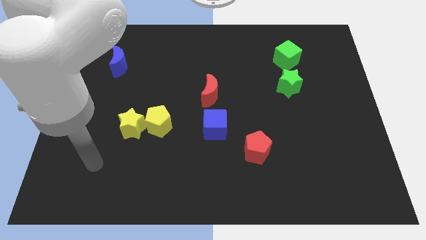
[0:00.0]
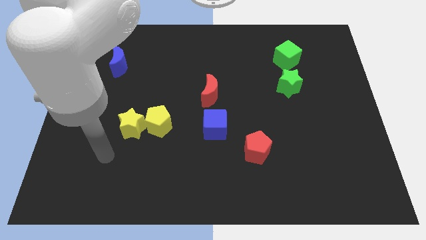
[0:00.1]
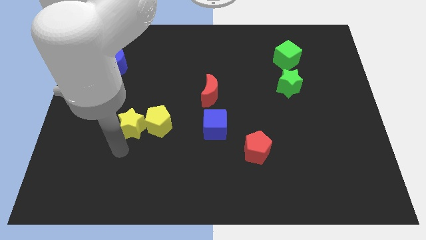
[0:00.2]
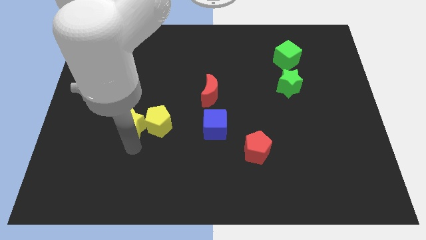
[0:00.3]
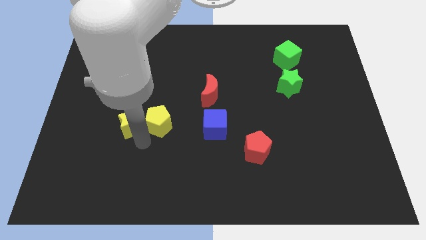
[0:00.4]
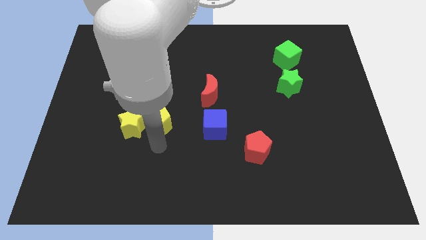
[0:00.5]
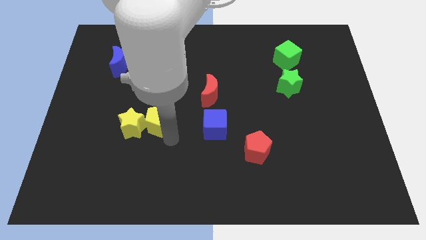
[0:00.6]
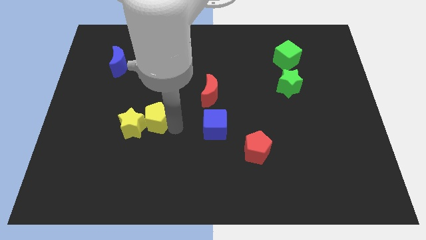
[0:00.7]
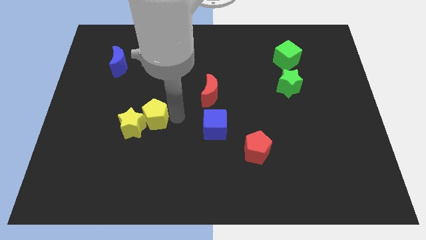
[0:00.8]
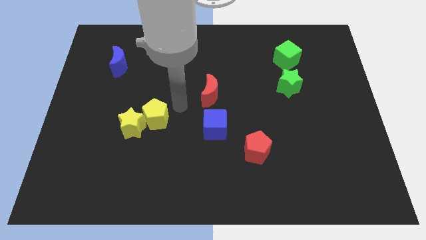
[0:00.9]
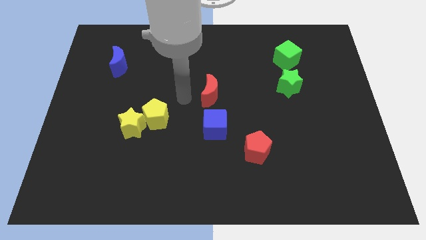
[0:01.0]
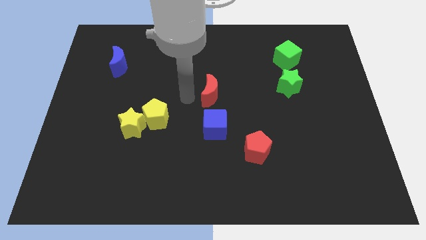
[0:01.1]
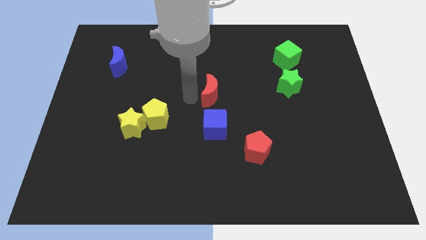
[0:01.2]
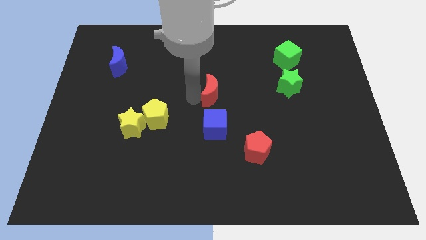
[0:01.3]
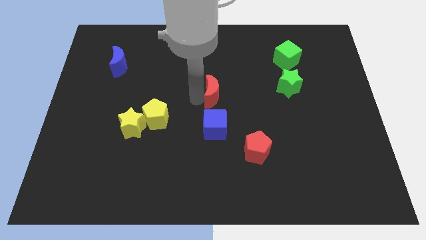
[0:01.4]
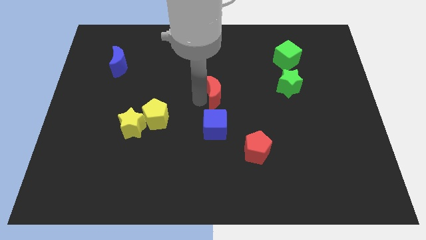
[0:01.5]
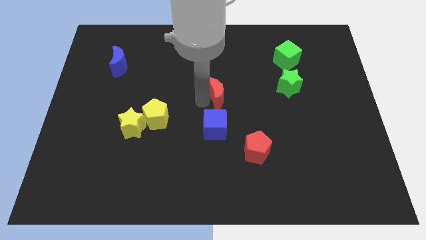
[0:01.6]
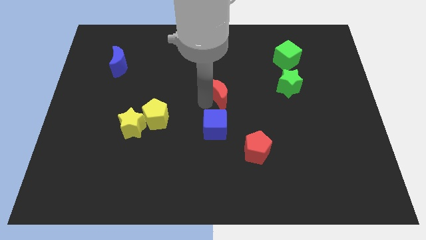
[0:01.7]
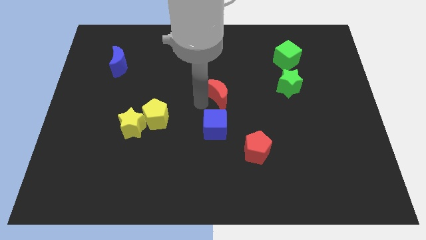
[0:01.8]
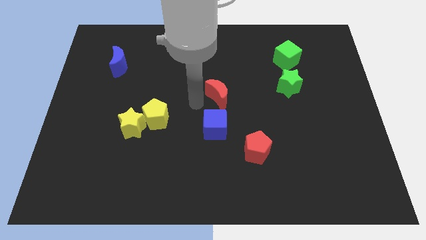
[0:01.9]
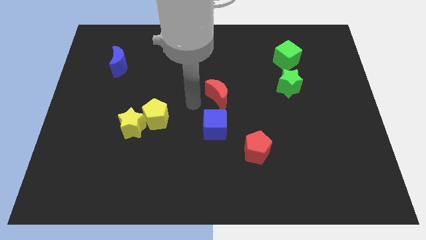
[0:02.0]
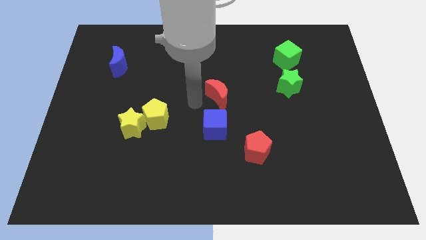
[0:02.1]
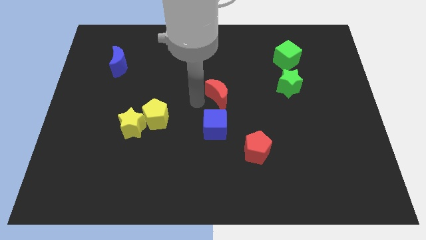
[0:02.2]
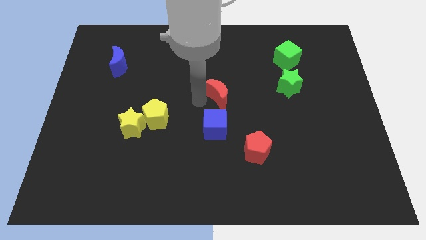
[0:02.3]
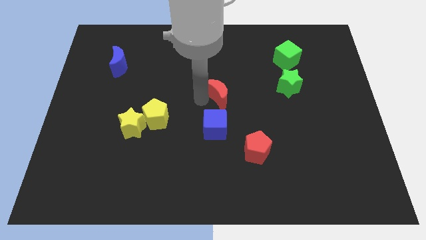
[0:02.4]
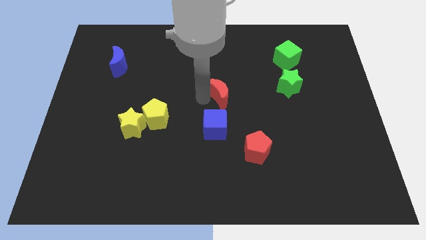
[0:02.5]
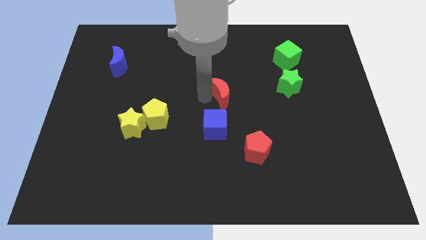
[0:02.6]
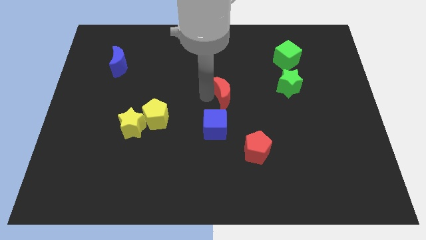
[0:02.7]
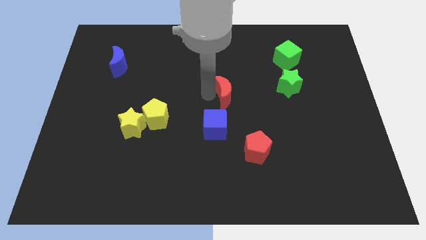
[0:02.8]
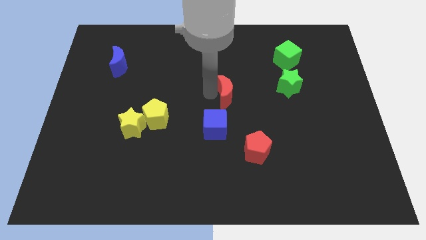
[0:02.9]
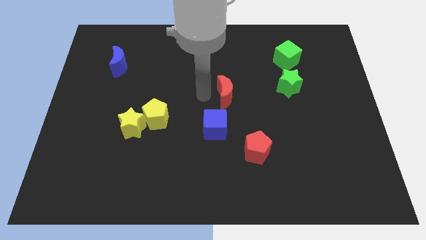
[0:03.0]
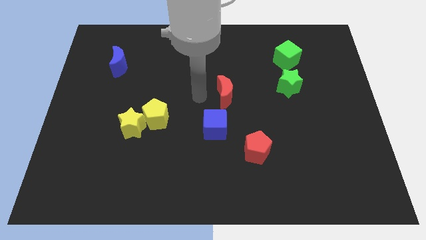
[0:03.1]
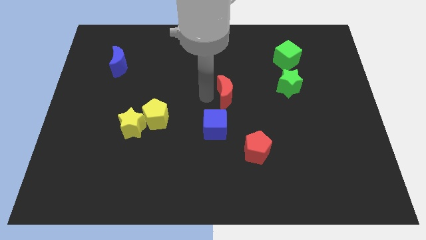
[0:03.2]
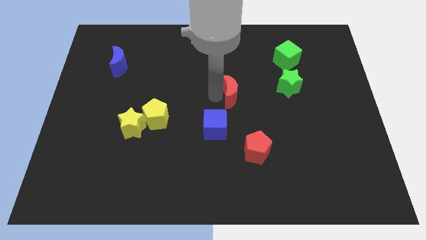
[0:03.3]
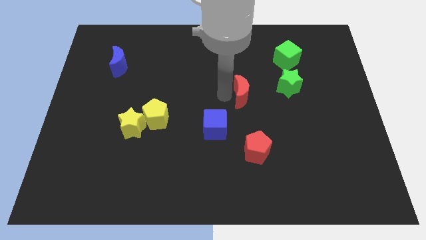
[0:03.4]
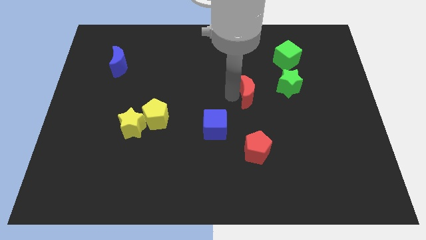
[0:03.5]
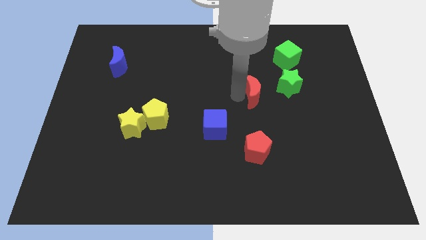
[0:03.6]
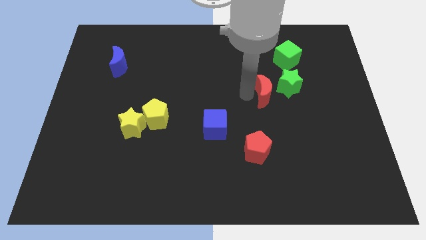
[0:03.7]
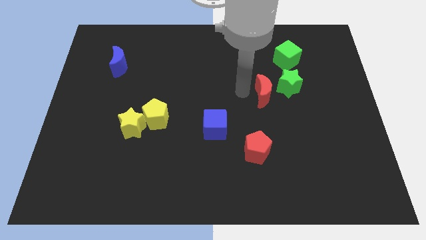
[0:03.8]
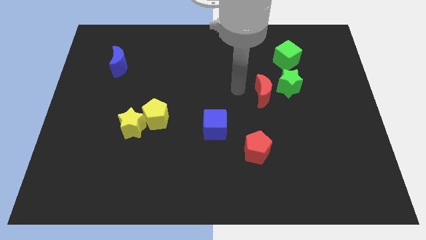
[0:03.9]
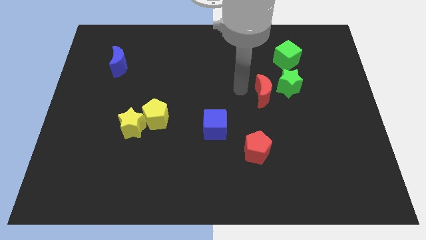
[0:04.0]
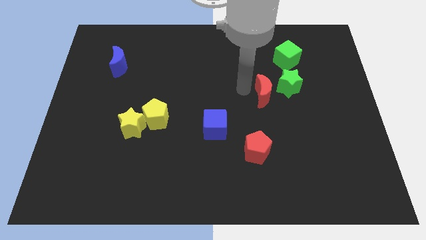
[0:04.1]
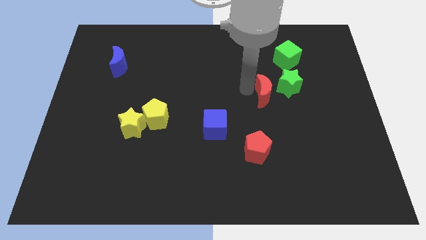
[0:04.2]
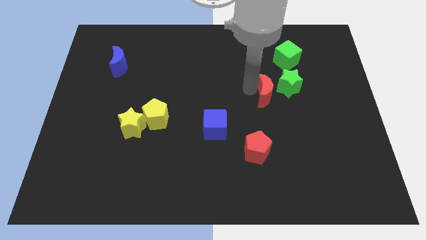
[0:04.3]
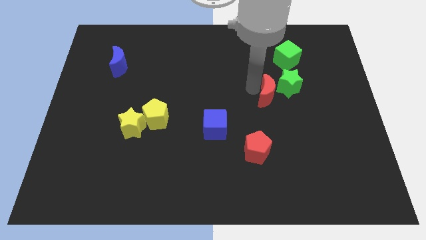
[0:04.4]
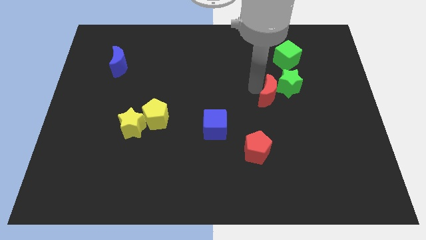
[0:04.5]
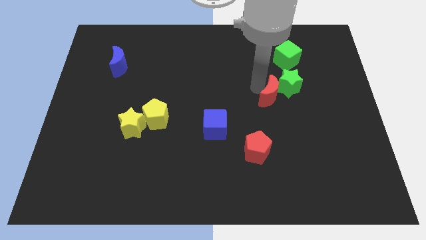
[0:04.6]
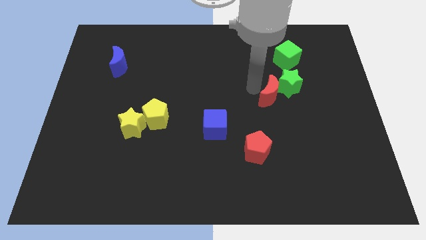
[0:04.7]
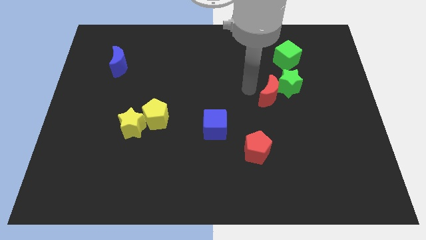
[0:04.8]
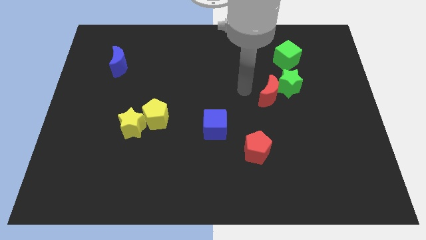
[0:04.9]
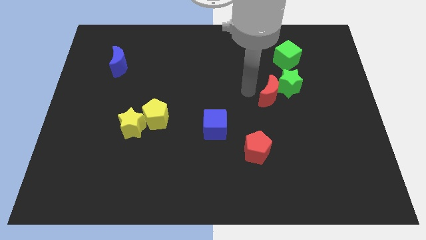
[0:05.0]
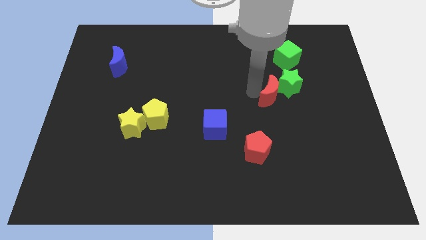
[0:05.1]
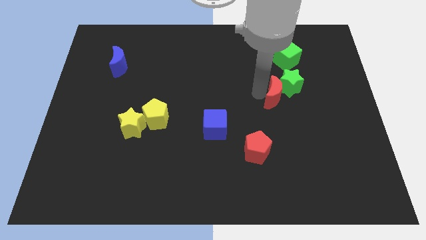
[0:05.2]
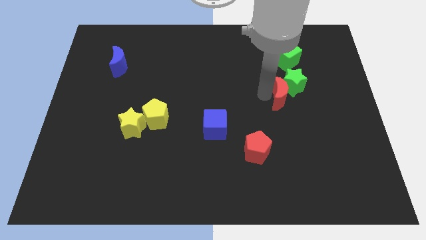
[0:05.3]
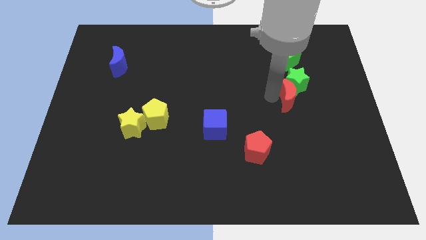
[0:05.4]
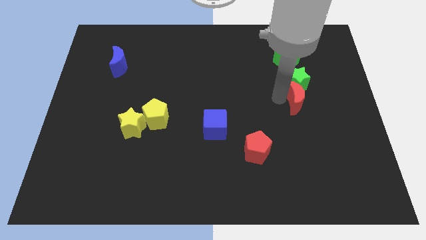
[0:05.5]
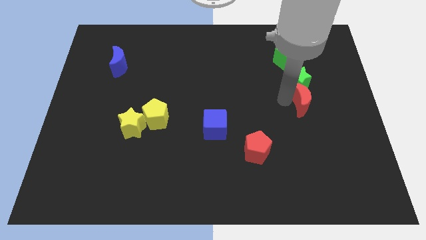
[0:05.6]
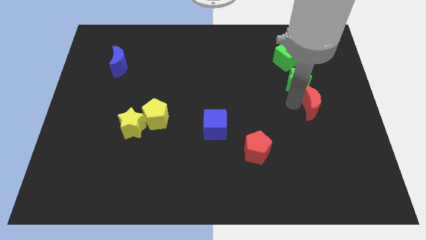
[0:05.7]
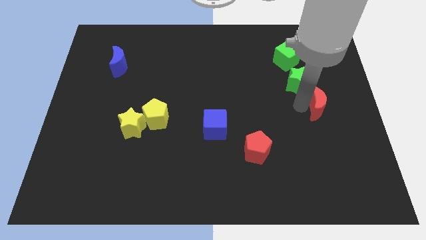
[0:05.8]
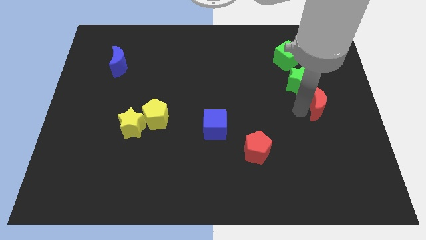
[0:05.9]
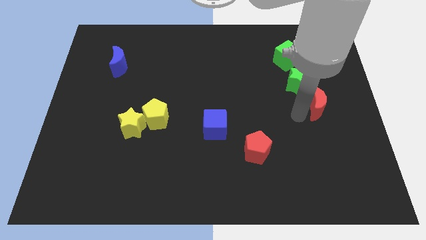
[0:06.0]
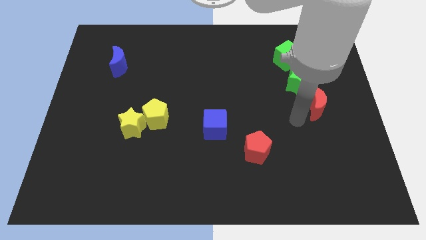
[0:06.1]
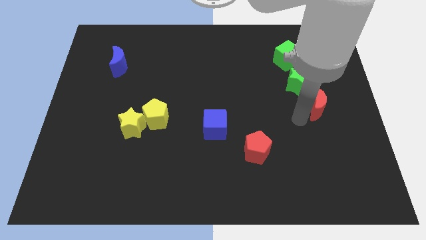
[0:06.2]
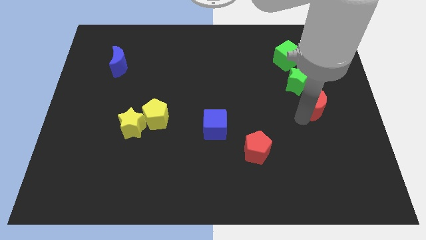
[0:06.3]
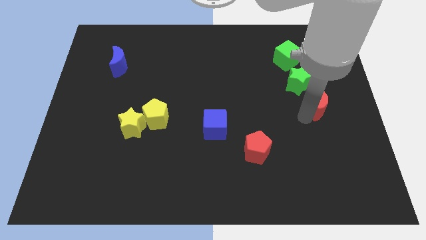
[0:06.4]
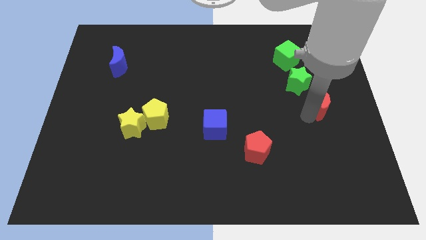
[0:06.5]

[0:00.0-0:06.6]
slide the red moon to the right side

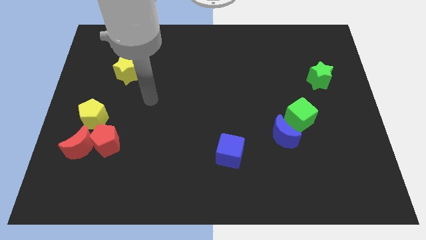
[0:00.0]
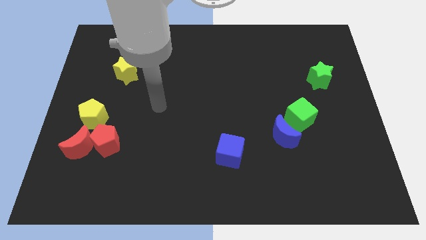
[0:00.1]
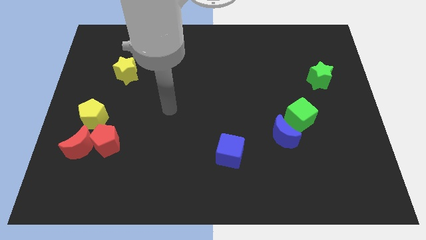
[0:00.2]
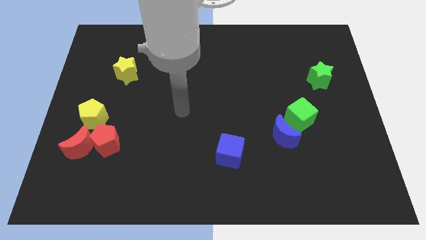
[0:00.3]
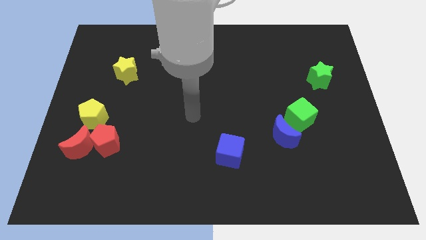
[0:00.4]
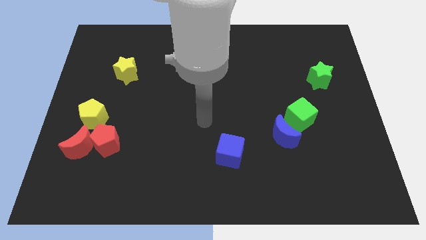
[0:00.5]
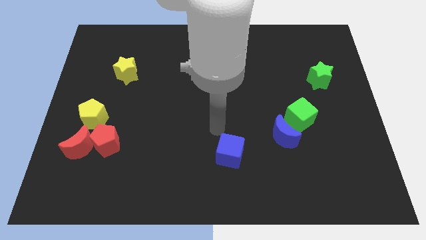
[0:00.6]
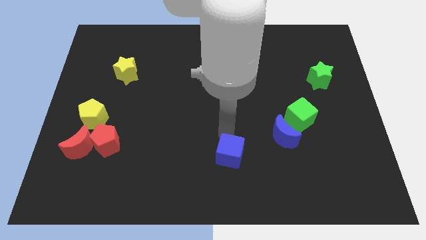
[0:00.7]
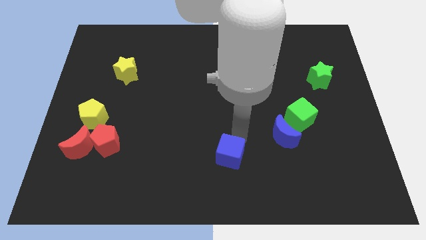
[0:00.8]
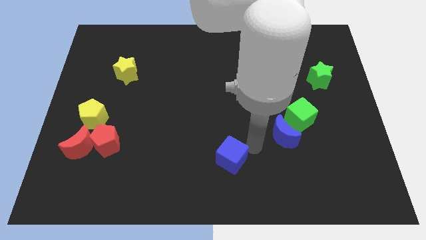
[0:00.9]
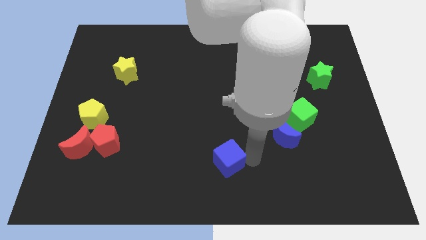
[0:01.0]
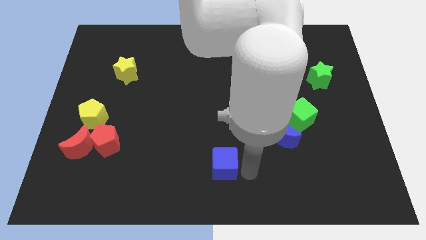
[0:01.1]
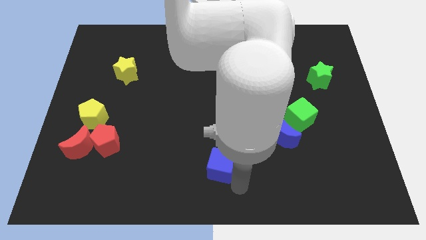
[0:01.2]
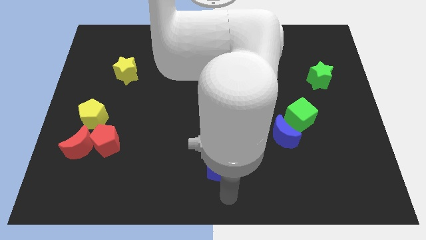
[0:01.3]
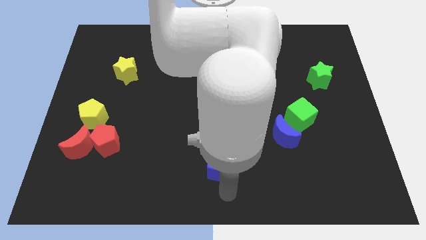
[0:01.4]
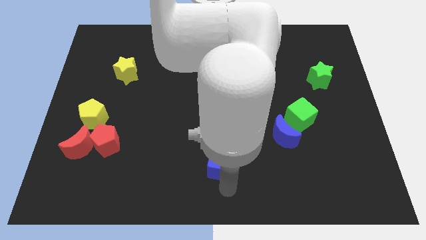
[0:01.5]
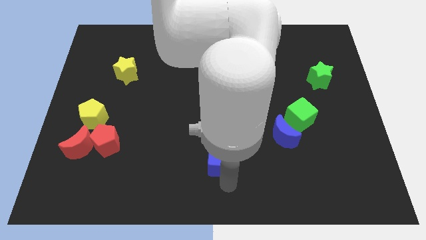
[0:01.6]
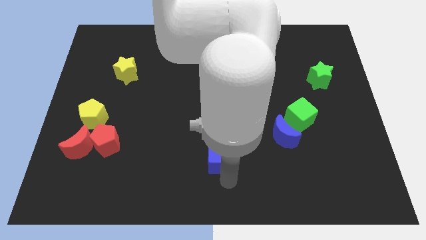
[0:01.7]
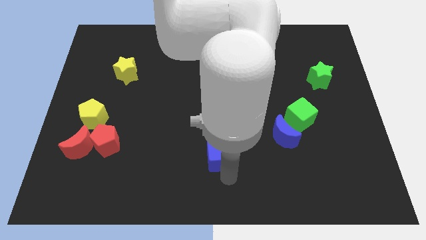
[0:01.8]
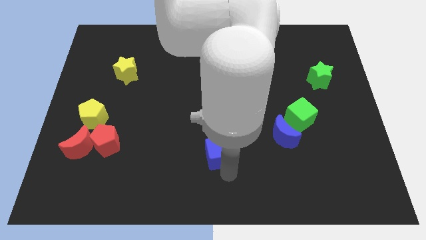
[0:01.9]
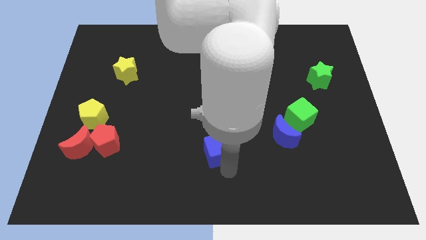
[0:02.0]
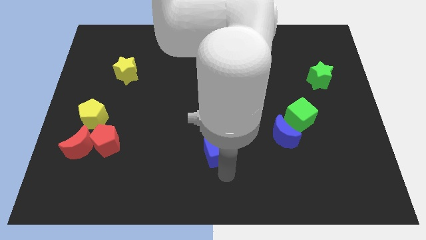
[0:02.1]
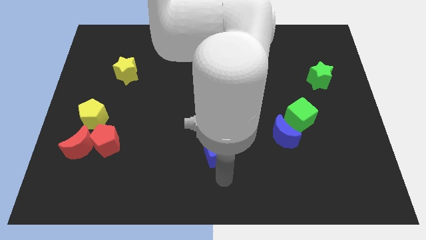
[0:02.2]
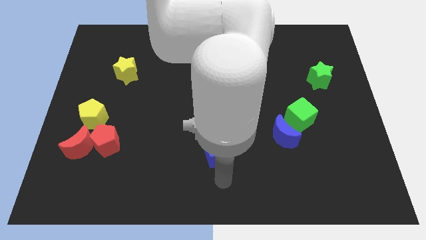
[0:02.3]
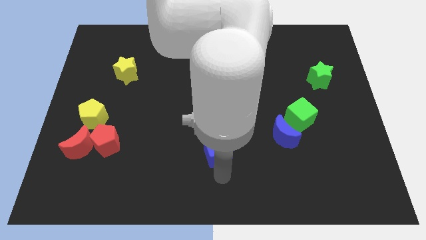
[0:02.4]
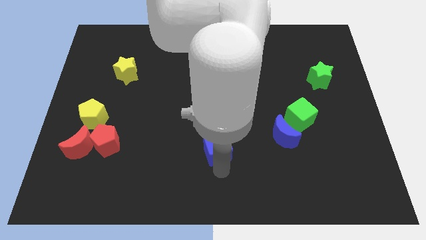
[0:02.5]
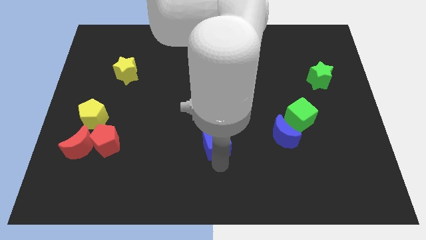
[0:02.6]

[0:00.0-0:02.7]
push the blue cube to the middle
